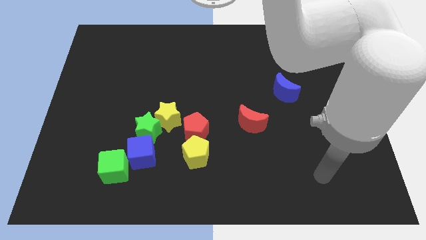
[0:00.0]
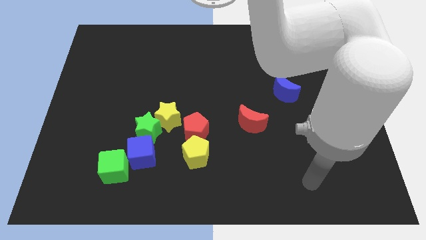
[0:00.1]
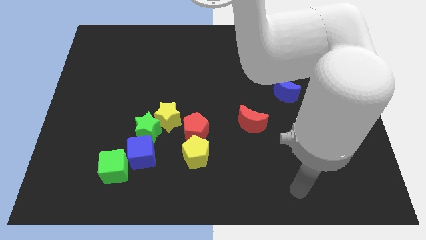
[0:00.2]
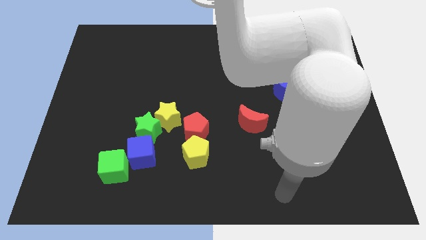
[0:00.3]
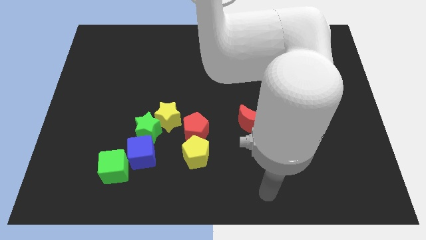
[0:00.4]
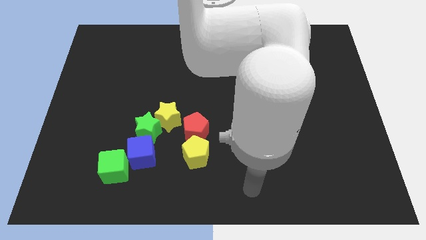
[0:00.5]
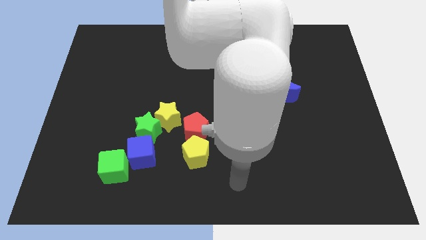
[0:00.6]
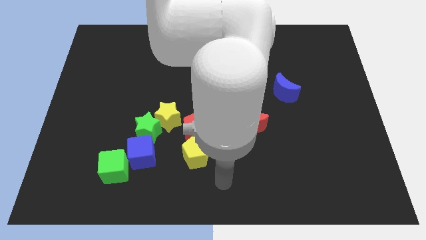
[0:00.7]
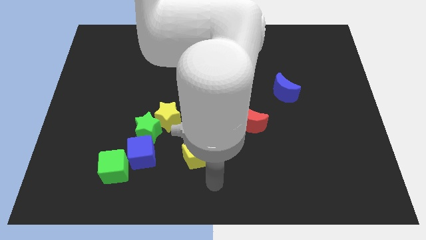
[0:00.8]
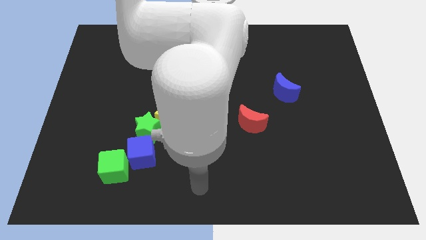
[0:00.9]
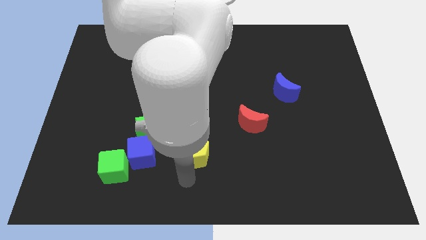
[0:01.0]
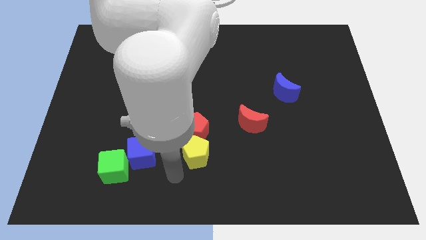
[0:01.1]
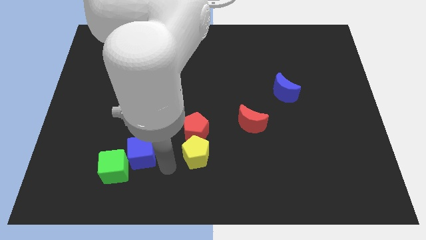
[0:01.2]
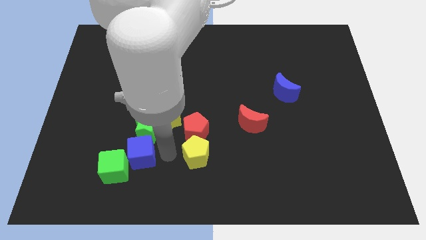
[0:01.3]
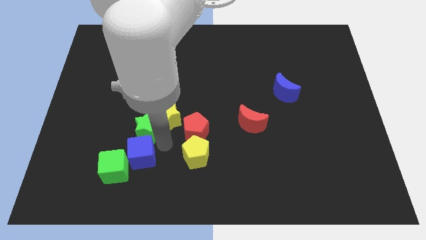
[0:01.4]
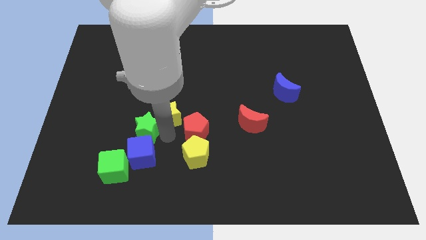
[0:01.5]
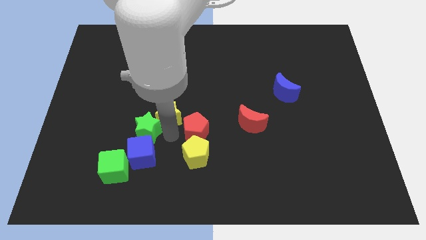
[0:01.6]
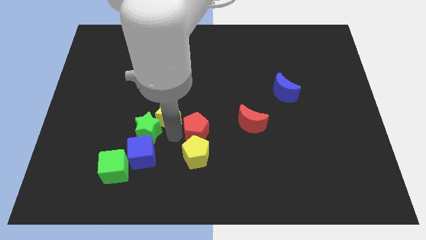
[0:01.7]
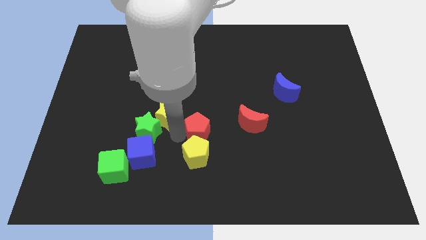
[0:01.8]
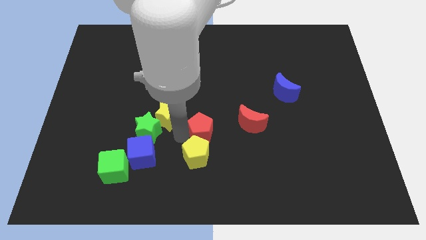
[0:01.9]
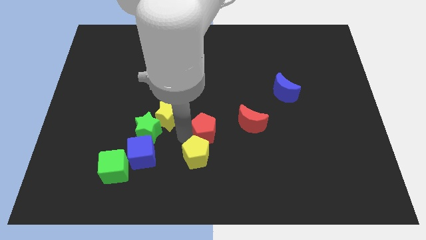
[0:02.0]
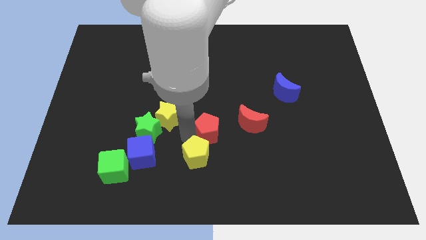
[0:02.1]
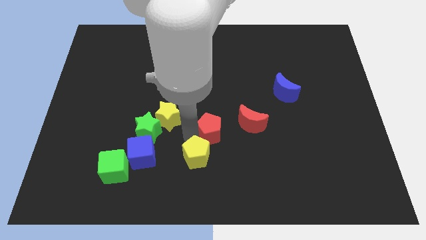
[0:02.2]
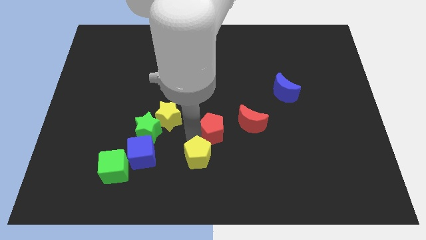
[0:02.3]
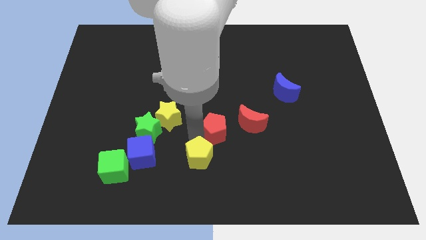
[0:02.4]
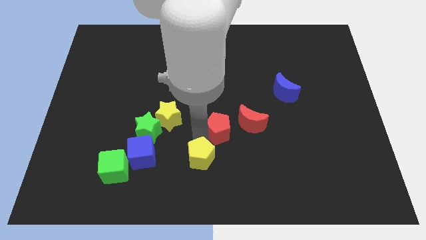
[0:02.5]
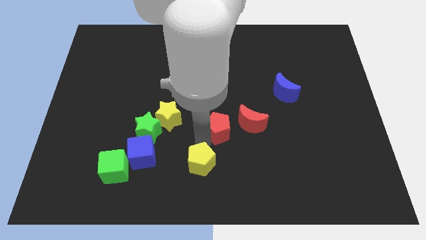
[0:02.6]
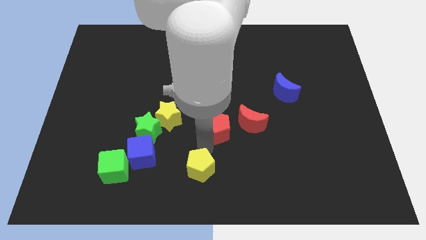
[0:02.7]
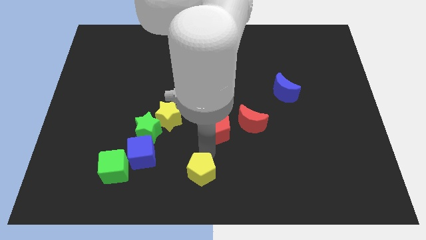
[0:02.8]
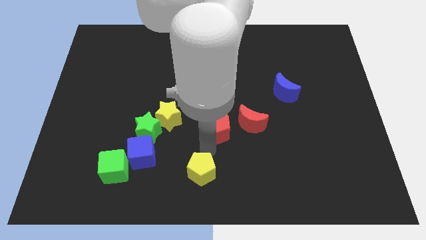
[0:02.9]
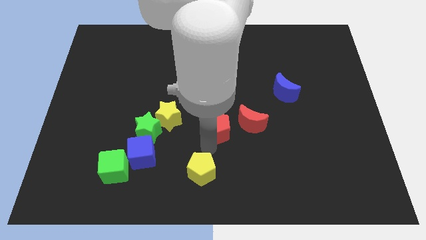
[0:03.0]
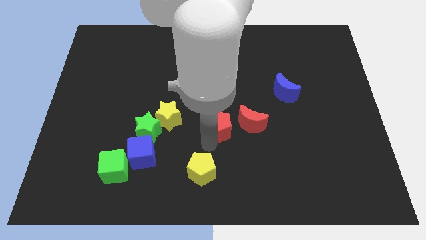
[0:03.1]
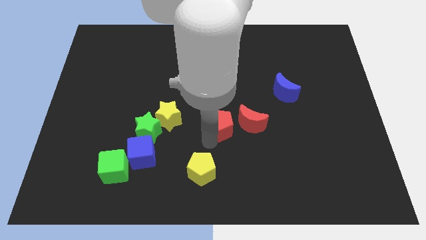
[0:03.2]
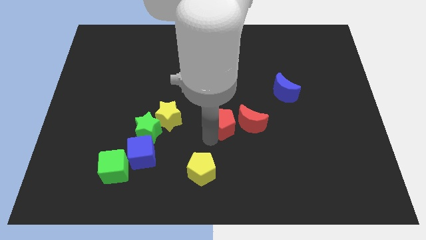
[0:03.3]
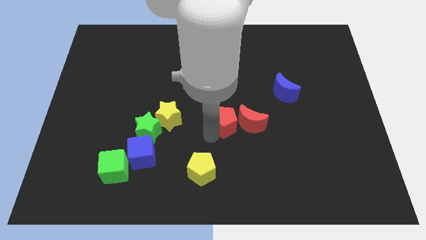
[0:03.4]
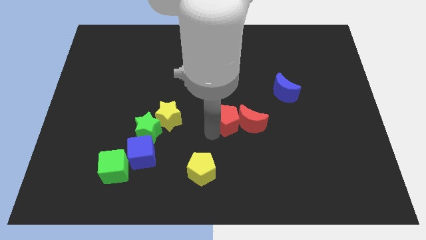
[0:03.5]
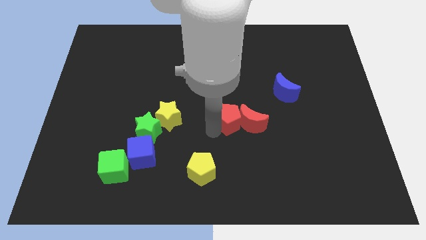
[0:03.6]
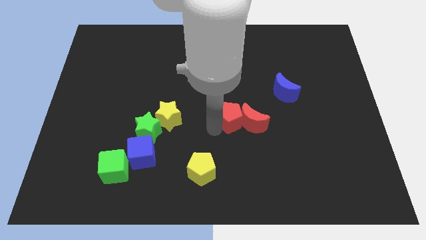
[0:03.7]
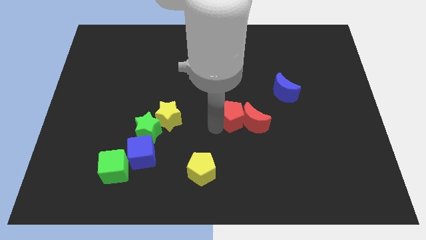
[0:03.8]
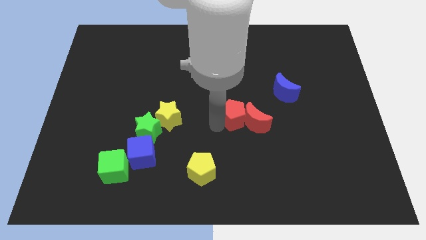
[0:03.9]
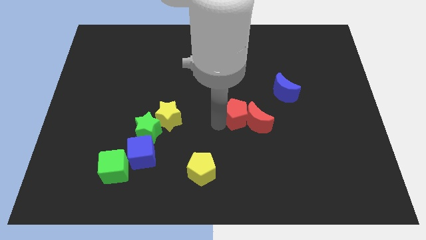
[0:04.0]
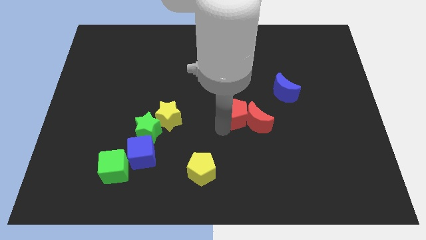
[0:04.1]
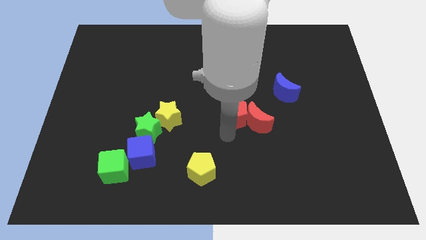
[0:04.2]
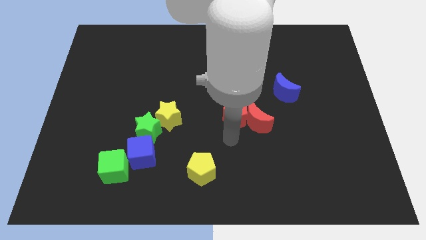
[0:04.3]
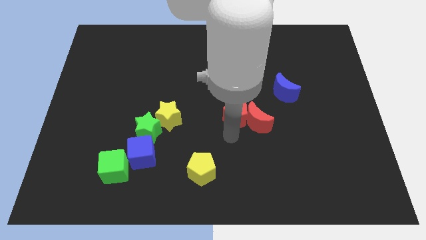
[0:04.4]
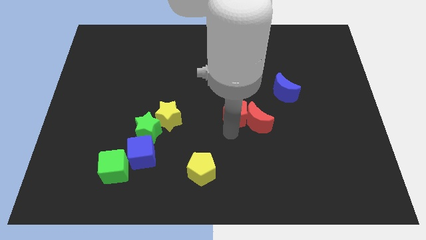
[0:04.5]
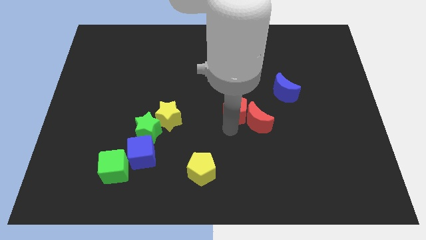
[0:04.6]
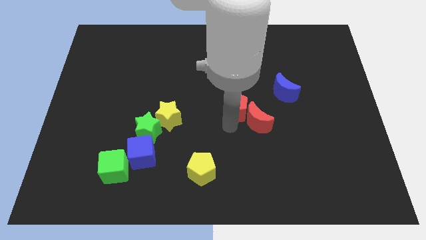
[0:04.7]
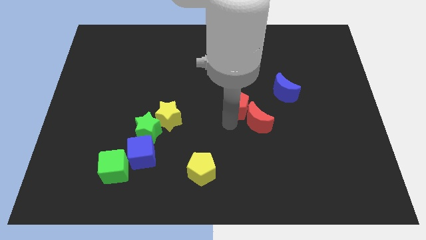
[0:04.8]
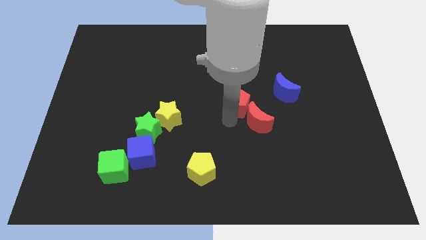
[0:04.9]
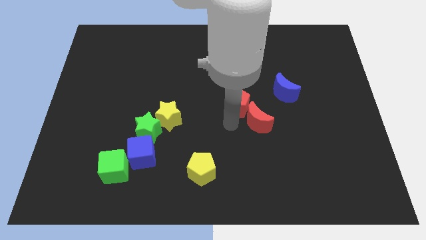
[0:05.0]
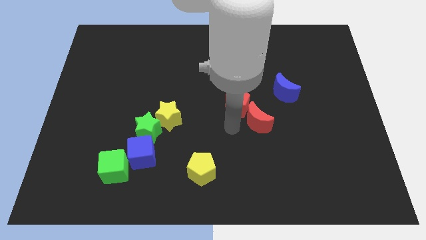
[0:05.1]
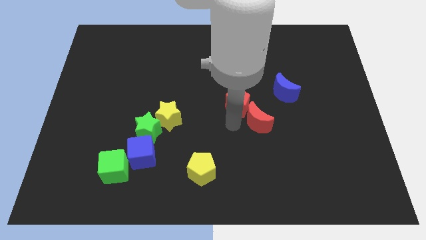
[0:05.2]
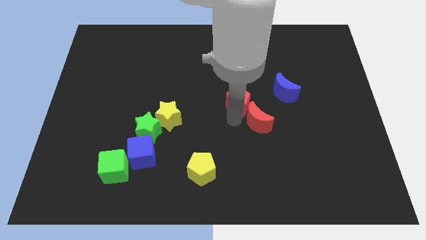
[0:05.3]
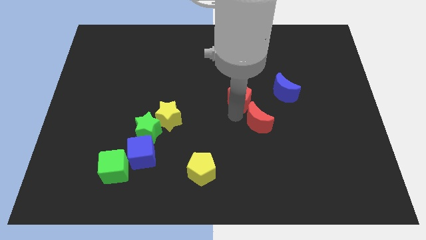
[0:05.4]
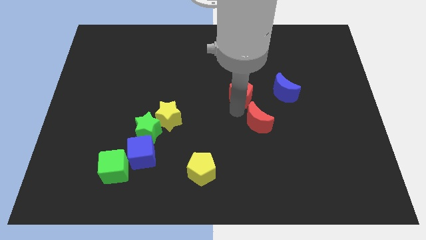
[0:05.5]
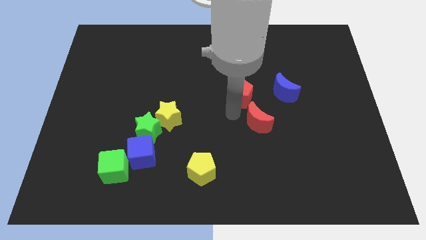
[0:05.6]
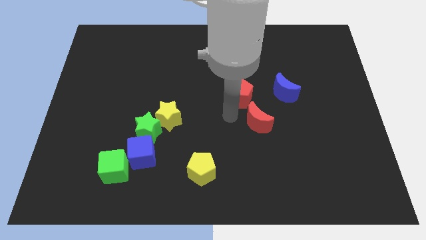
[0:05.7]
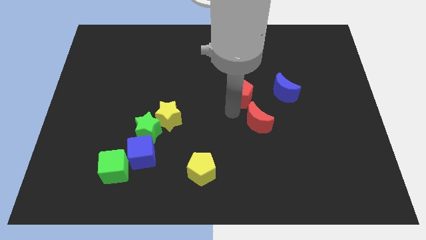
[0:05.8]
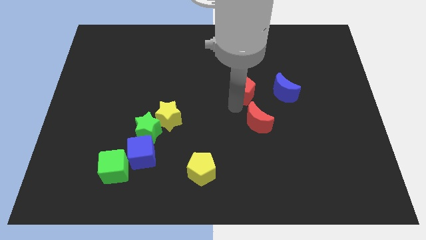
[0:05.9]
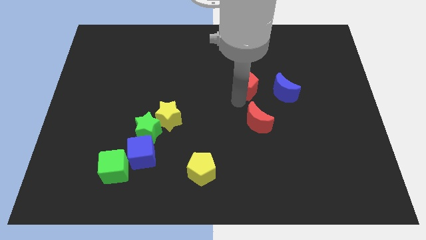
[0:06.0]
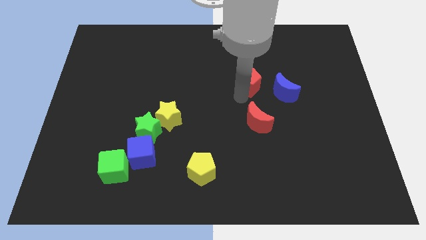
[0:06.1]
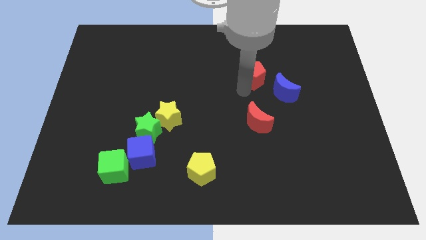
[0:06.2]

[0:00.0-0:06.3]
slide the red pentagon upwards and right diagonally

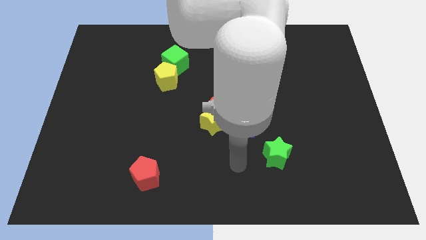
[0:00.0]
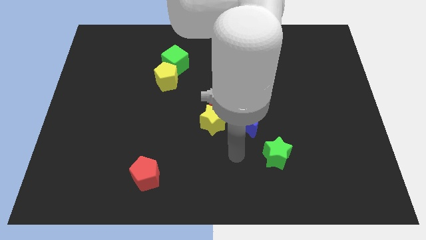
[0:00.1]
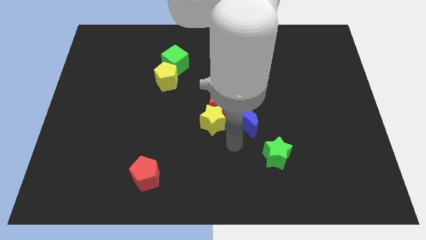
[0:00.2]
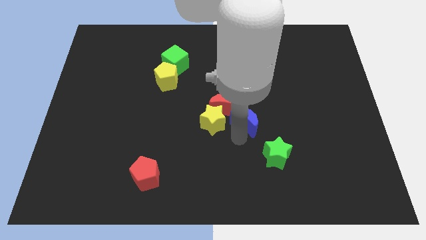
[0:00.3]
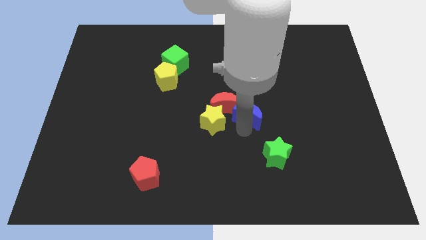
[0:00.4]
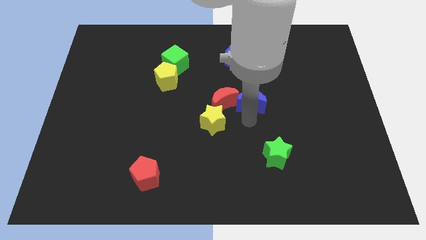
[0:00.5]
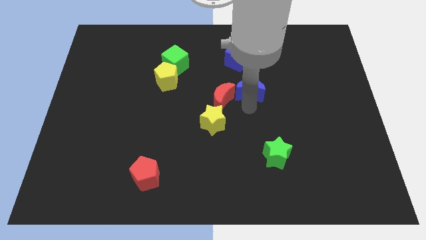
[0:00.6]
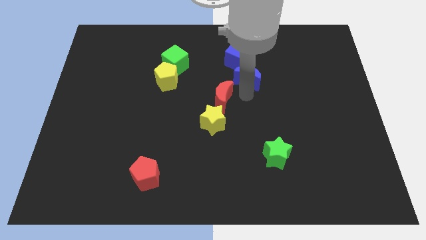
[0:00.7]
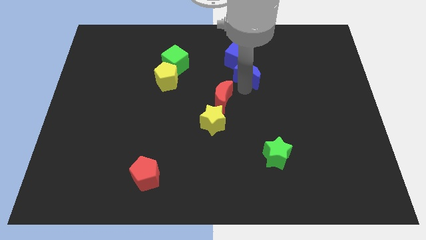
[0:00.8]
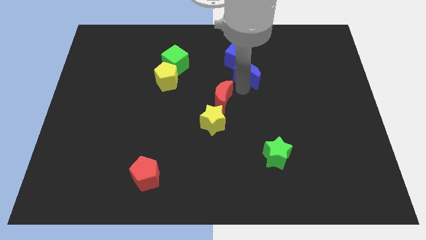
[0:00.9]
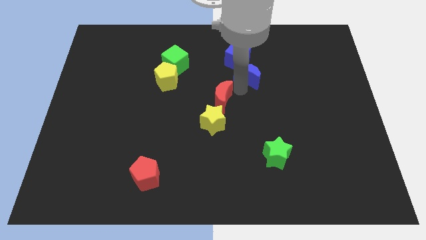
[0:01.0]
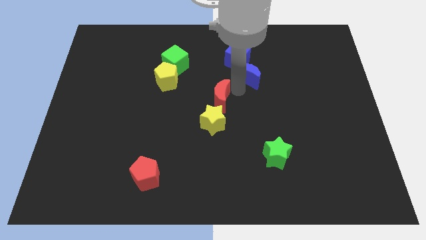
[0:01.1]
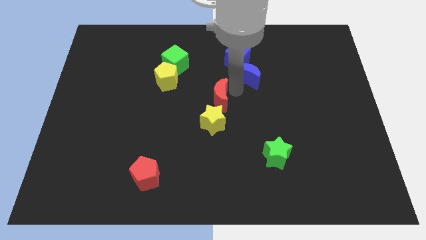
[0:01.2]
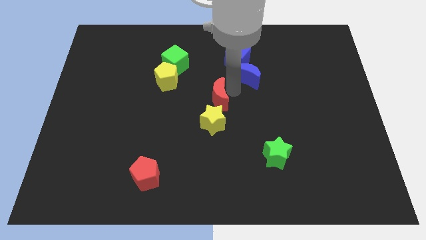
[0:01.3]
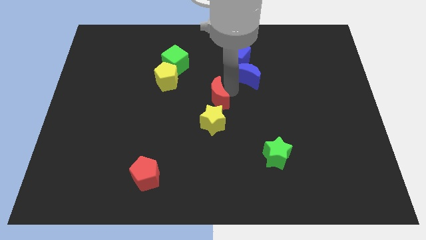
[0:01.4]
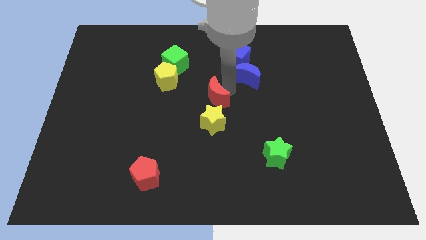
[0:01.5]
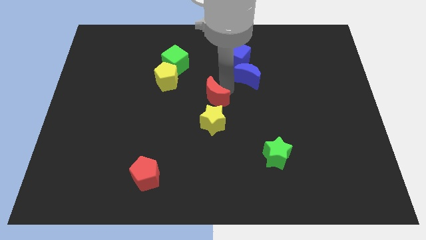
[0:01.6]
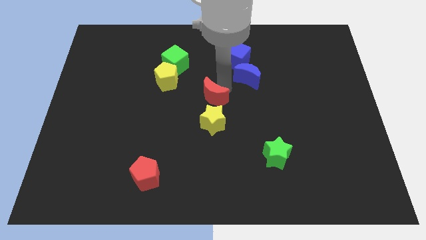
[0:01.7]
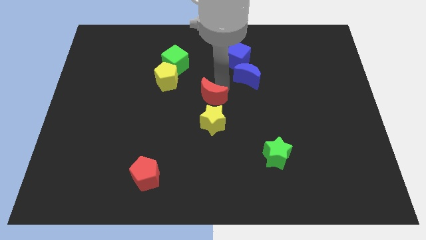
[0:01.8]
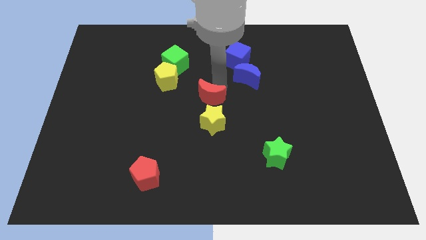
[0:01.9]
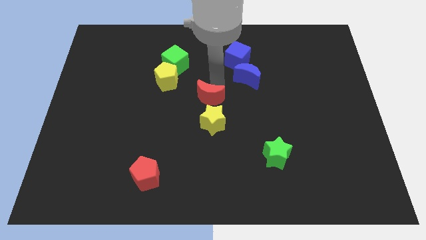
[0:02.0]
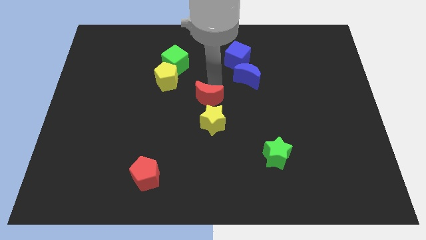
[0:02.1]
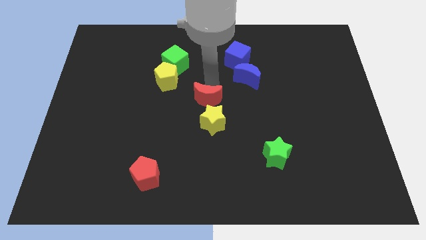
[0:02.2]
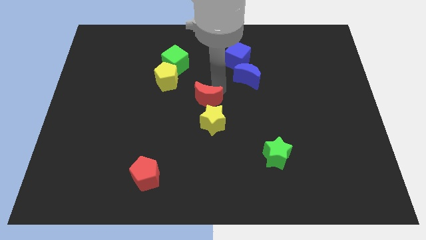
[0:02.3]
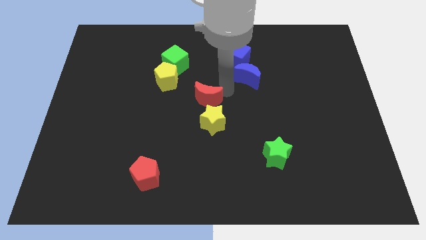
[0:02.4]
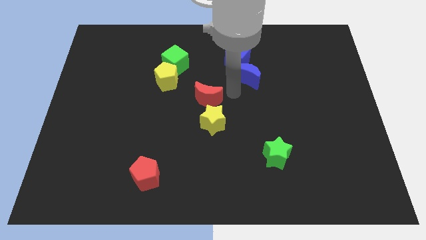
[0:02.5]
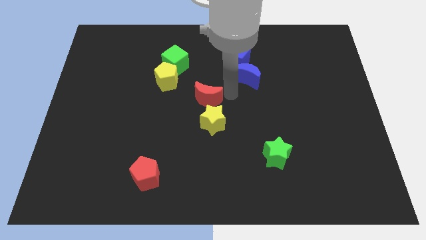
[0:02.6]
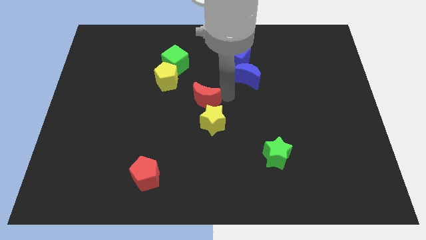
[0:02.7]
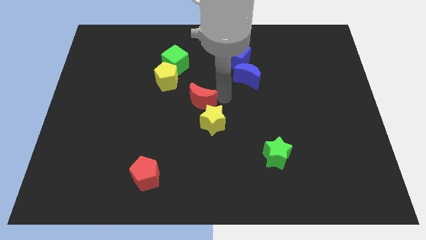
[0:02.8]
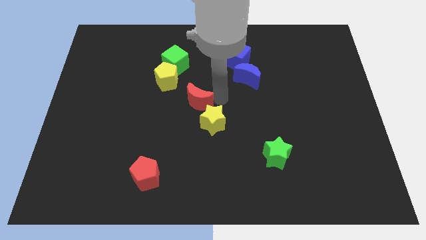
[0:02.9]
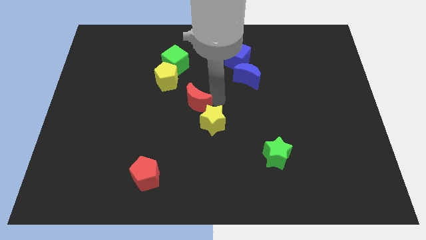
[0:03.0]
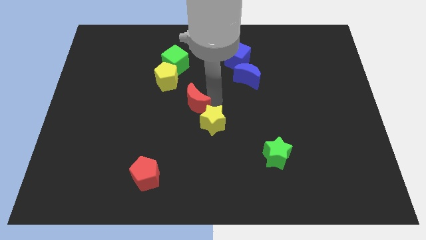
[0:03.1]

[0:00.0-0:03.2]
slide the red moon somewhat to the left
